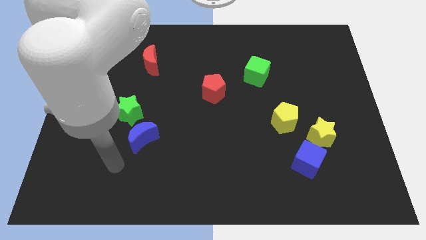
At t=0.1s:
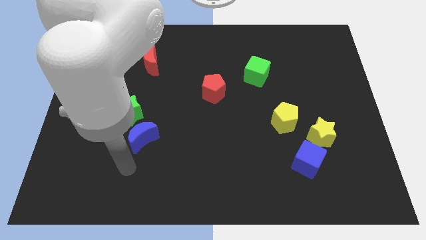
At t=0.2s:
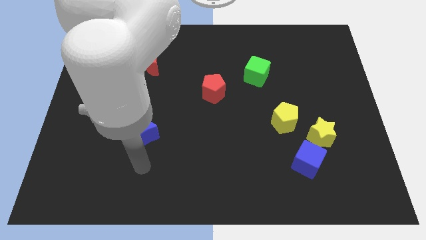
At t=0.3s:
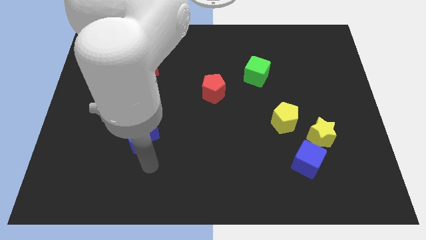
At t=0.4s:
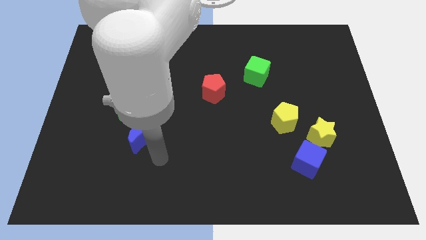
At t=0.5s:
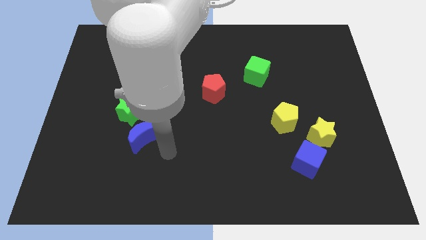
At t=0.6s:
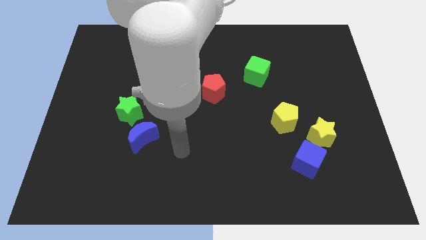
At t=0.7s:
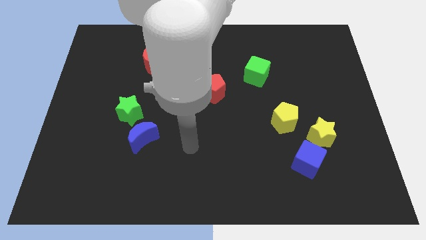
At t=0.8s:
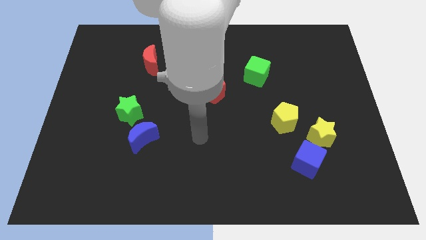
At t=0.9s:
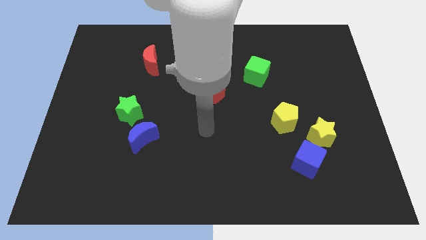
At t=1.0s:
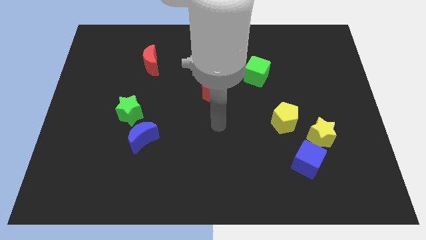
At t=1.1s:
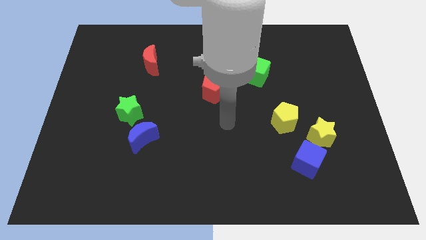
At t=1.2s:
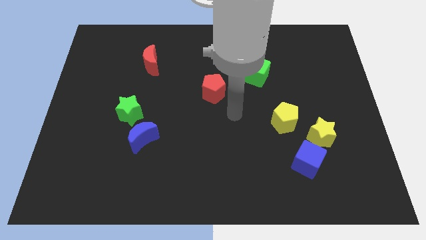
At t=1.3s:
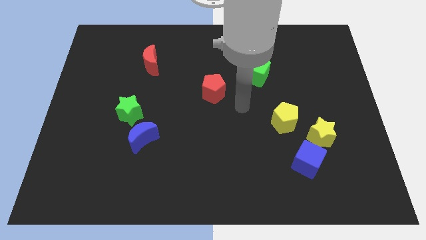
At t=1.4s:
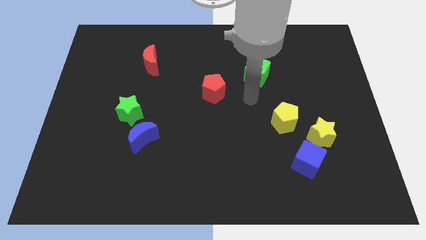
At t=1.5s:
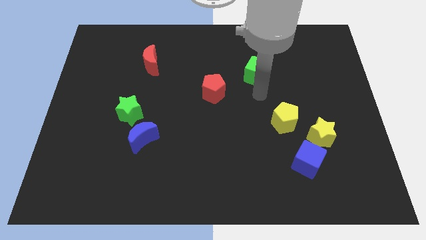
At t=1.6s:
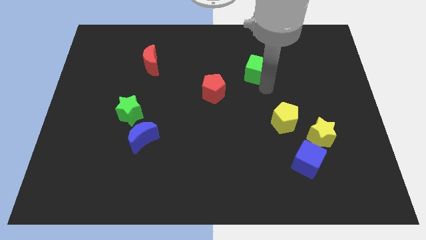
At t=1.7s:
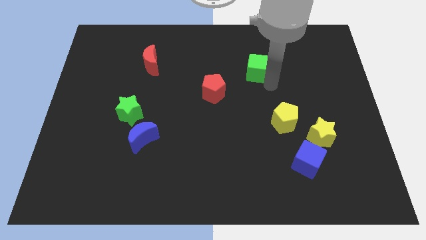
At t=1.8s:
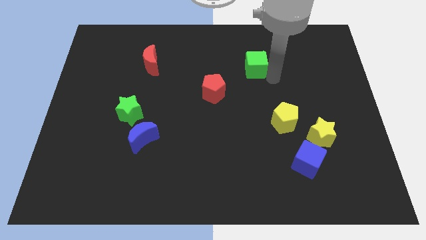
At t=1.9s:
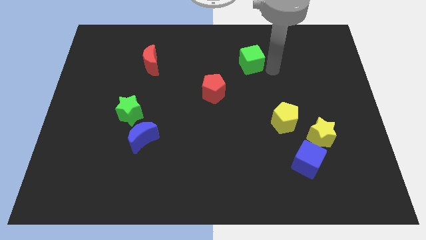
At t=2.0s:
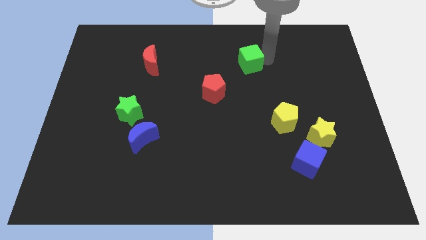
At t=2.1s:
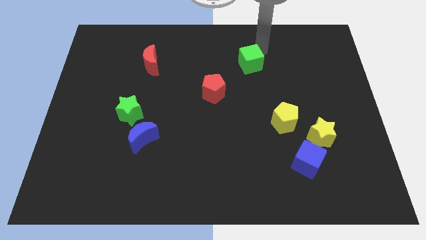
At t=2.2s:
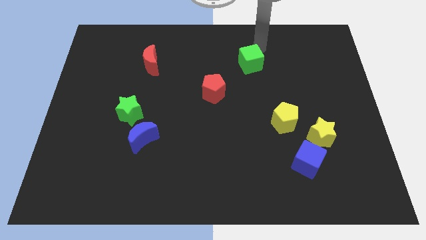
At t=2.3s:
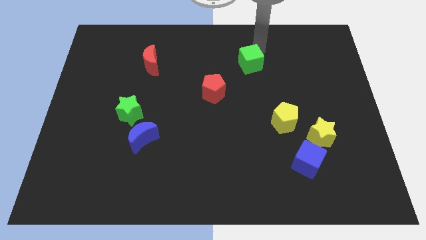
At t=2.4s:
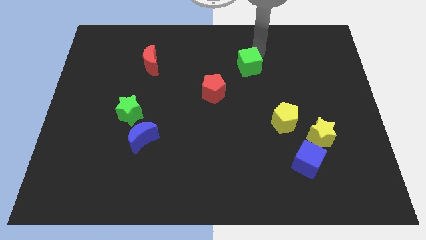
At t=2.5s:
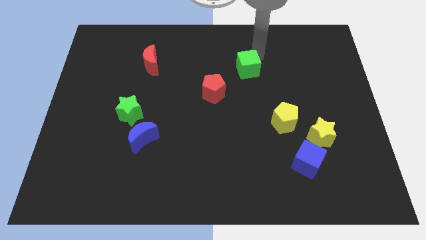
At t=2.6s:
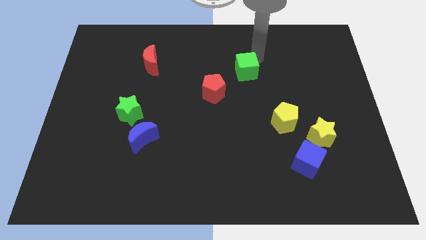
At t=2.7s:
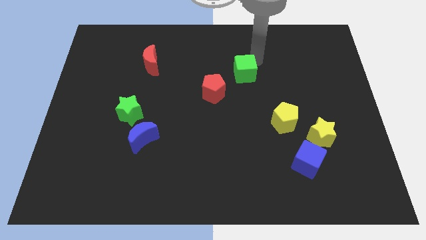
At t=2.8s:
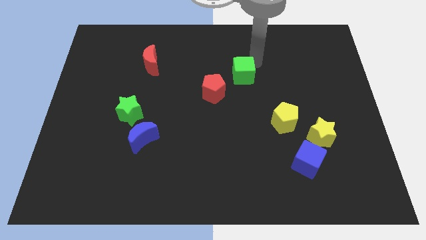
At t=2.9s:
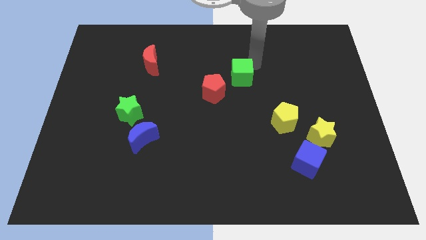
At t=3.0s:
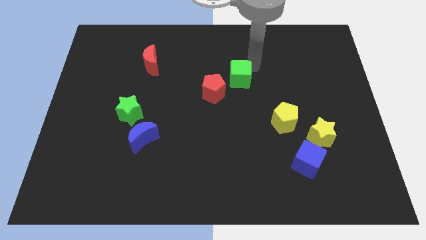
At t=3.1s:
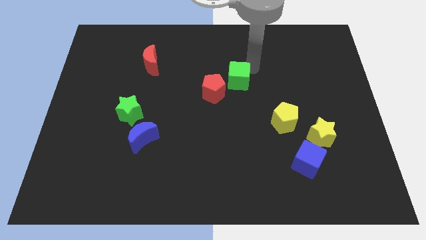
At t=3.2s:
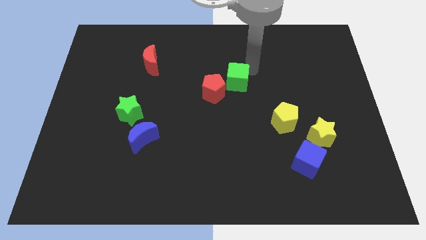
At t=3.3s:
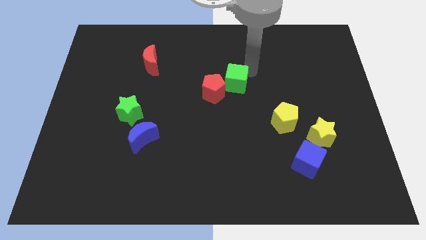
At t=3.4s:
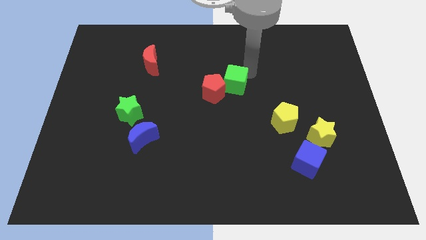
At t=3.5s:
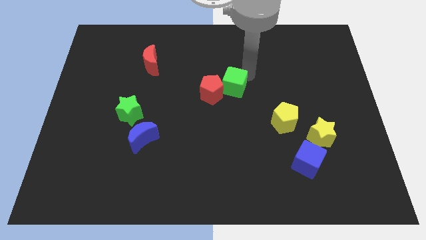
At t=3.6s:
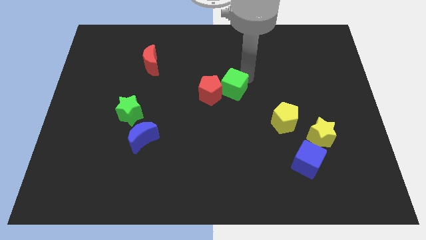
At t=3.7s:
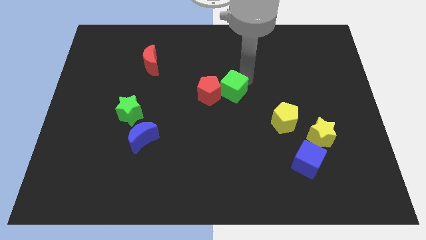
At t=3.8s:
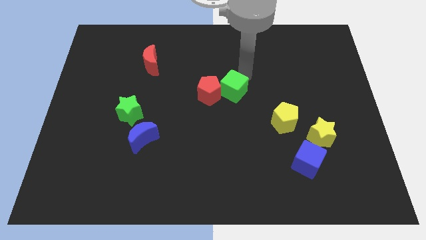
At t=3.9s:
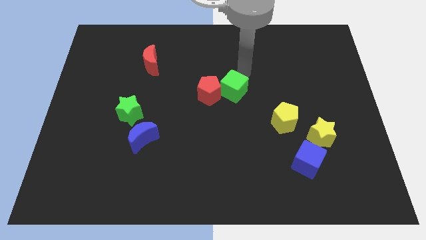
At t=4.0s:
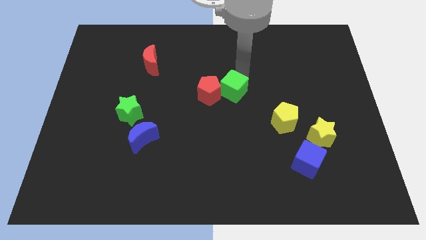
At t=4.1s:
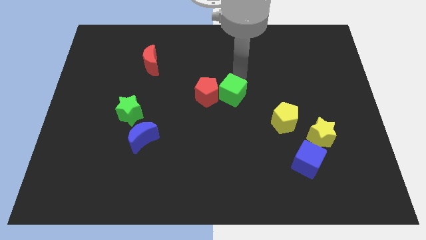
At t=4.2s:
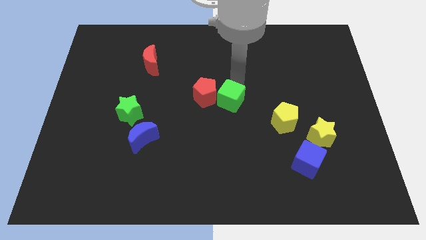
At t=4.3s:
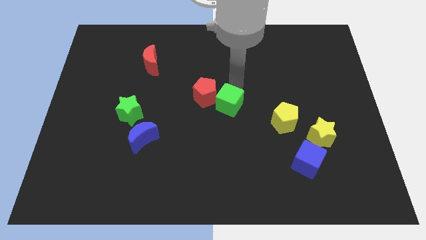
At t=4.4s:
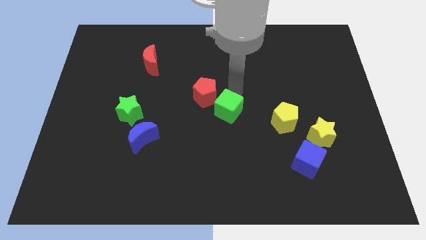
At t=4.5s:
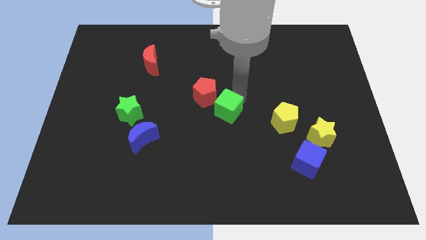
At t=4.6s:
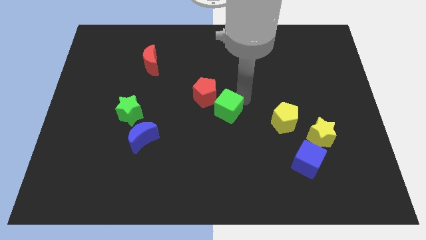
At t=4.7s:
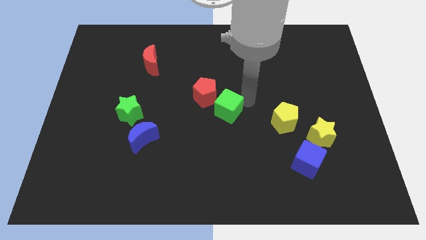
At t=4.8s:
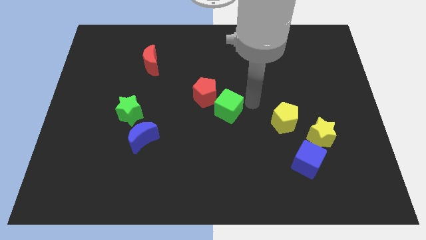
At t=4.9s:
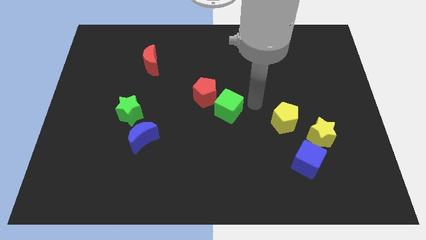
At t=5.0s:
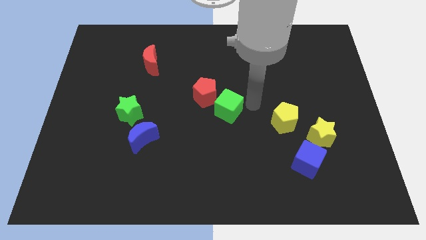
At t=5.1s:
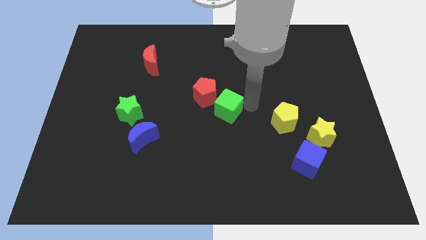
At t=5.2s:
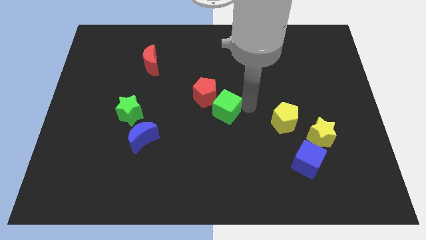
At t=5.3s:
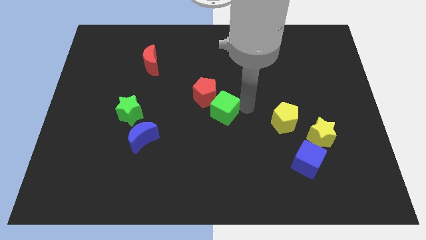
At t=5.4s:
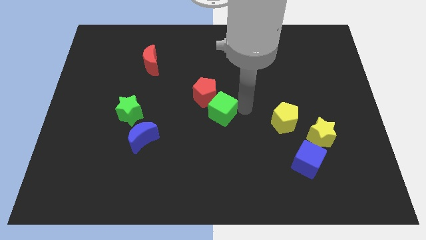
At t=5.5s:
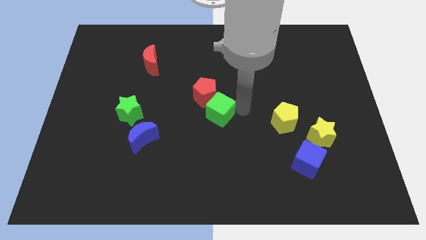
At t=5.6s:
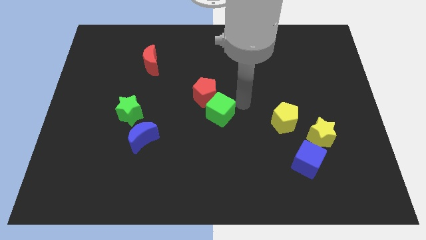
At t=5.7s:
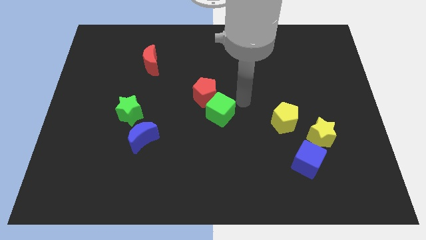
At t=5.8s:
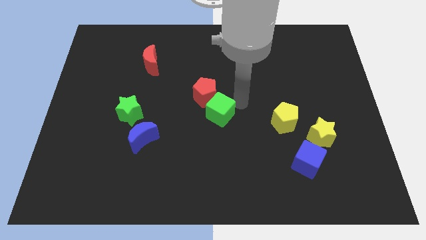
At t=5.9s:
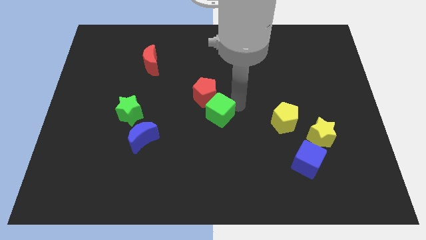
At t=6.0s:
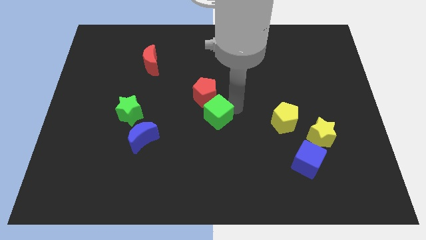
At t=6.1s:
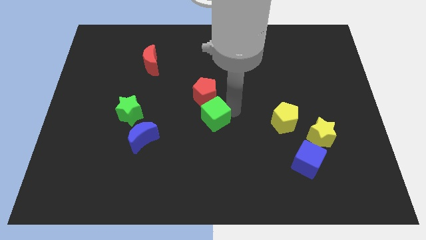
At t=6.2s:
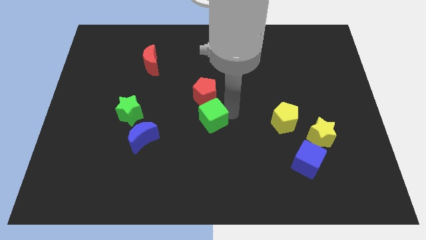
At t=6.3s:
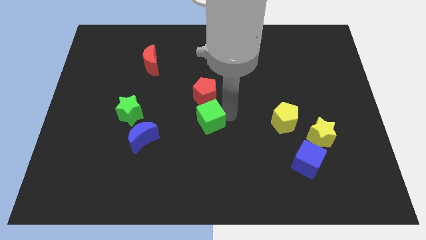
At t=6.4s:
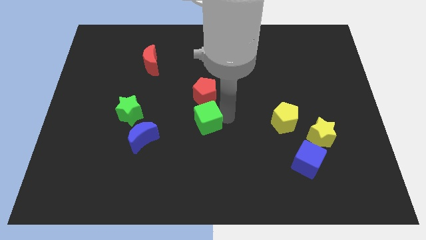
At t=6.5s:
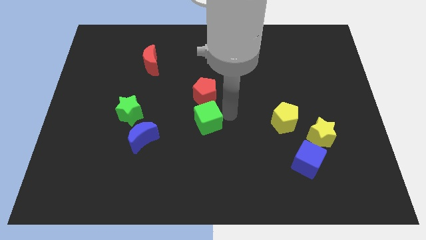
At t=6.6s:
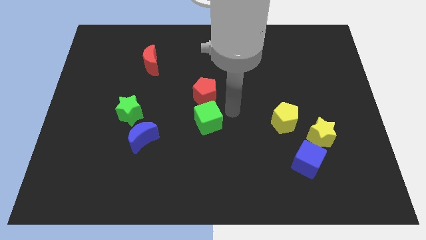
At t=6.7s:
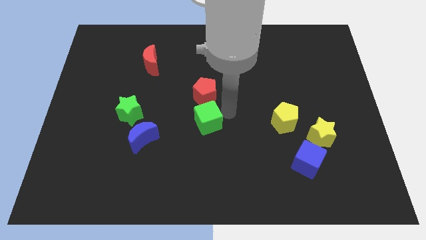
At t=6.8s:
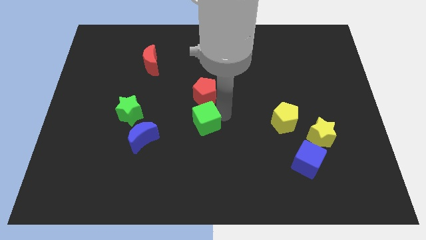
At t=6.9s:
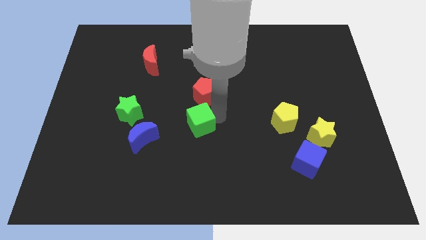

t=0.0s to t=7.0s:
move the green cube downwards and to the left diagonally

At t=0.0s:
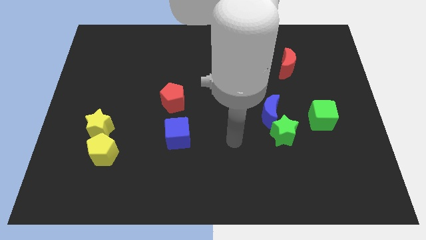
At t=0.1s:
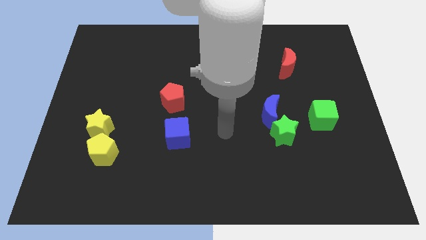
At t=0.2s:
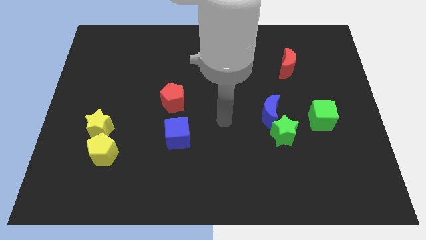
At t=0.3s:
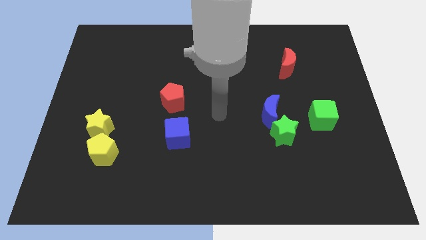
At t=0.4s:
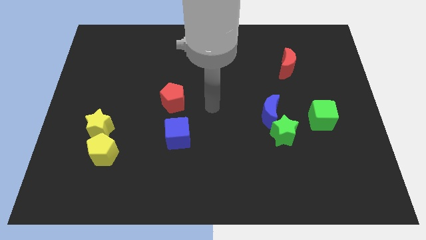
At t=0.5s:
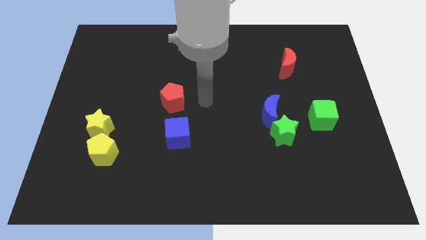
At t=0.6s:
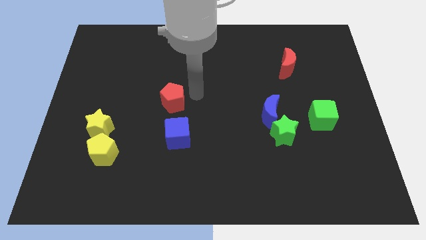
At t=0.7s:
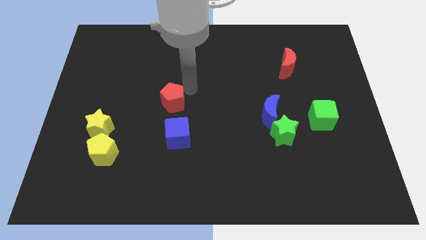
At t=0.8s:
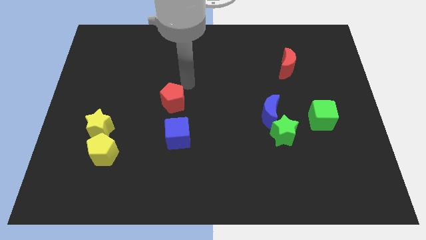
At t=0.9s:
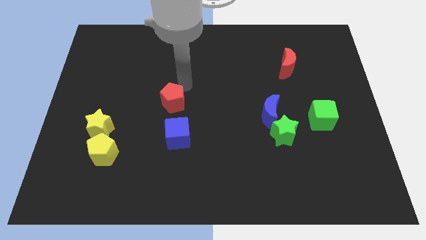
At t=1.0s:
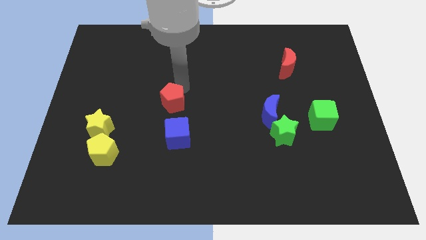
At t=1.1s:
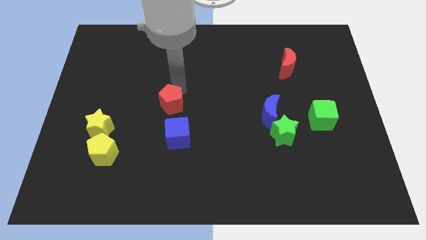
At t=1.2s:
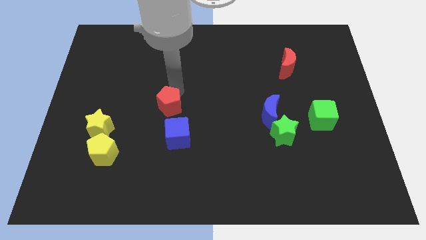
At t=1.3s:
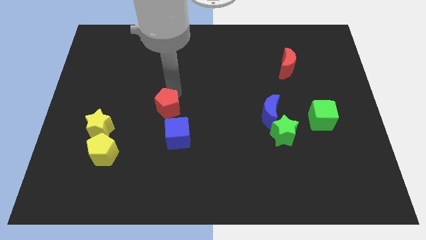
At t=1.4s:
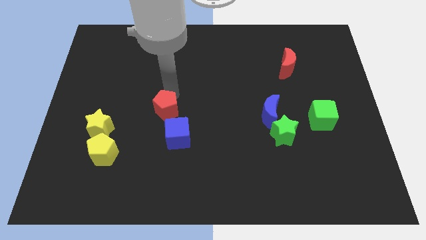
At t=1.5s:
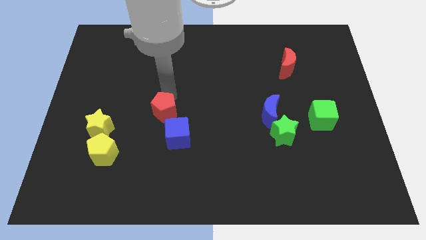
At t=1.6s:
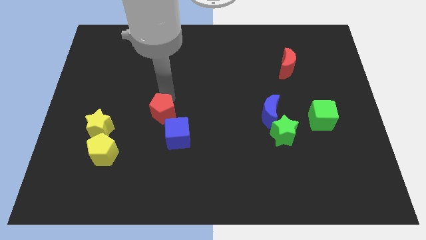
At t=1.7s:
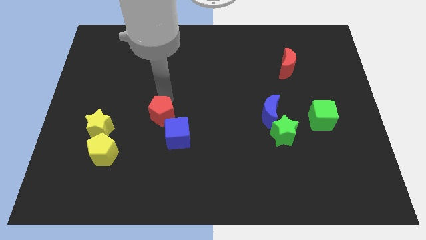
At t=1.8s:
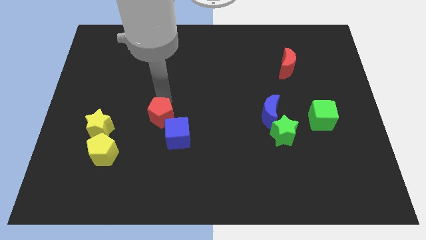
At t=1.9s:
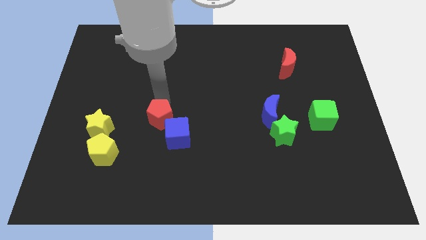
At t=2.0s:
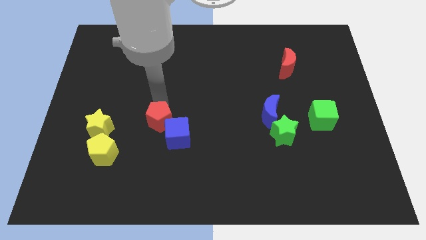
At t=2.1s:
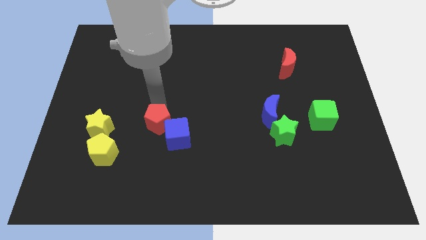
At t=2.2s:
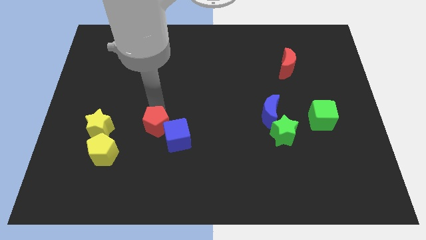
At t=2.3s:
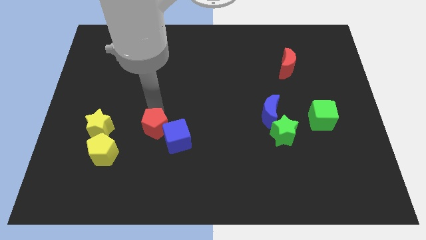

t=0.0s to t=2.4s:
slightly push the red pentagon downwards
